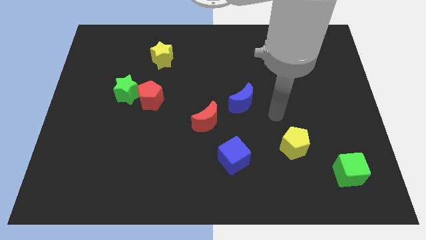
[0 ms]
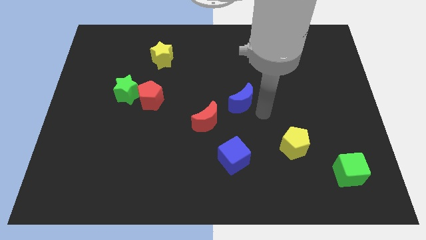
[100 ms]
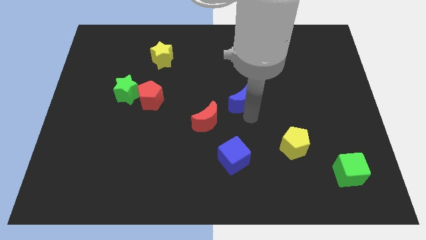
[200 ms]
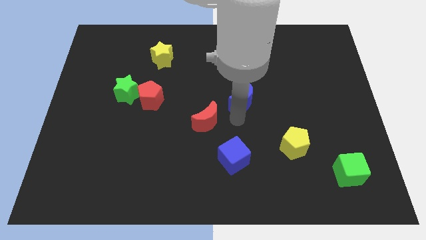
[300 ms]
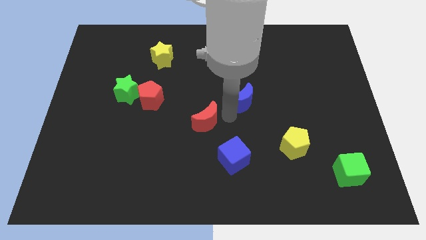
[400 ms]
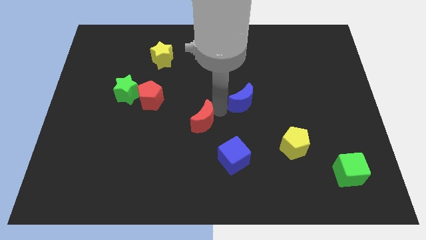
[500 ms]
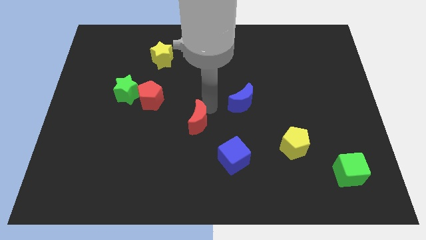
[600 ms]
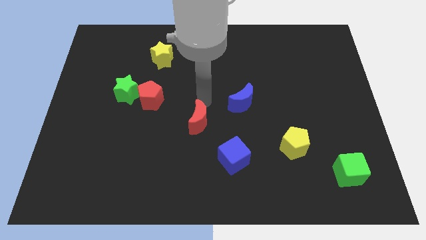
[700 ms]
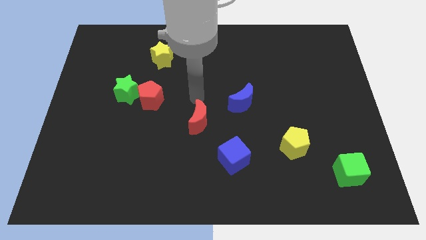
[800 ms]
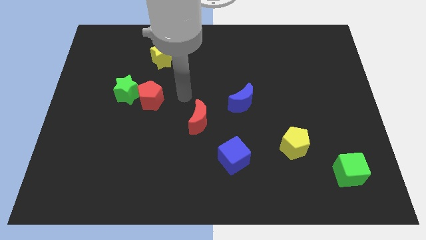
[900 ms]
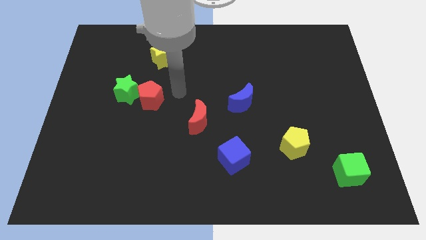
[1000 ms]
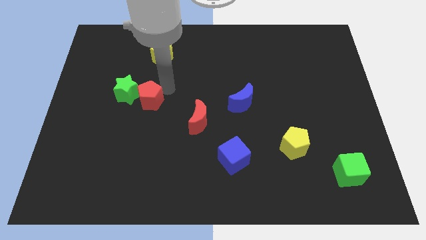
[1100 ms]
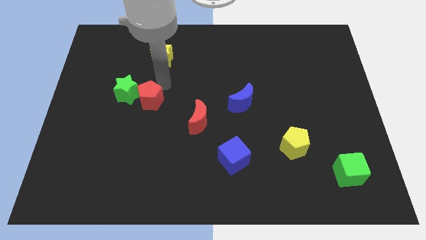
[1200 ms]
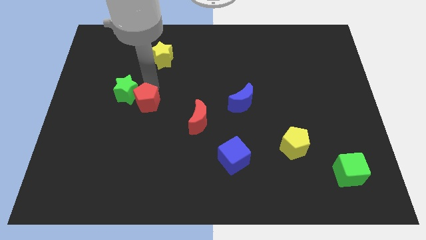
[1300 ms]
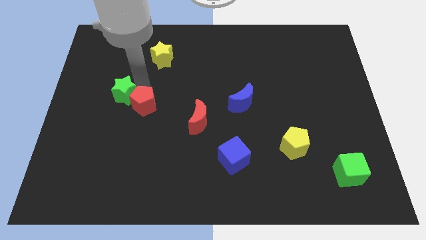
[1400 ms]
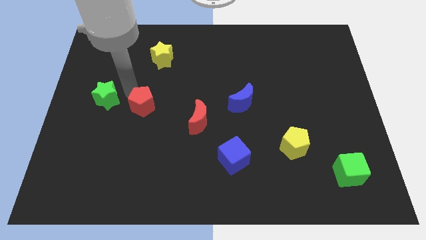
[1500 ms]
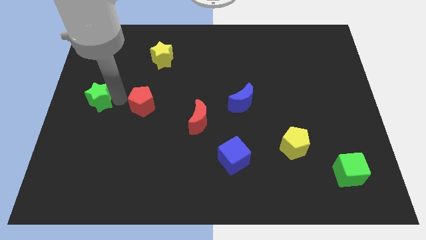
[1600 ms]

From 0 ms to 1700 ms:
separate the red pentagon from the green star

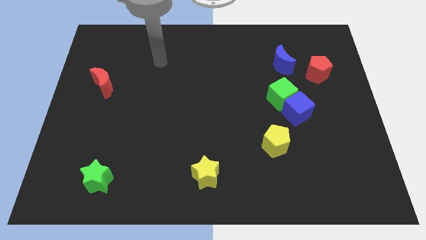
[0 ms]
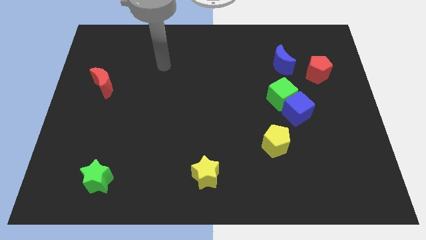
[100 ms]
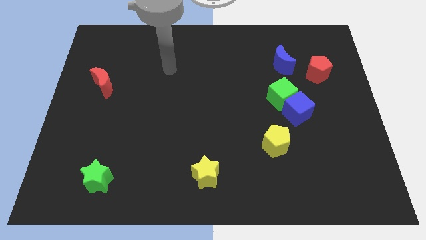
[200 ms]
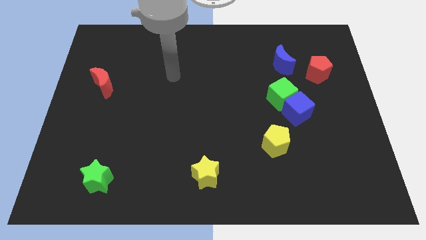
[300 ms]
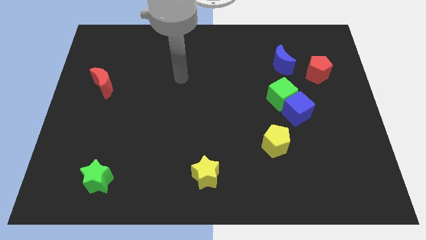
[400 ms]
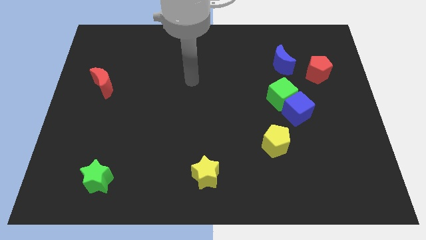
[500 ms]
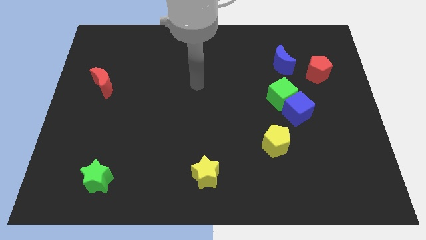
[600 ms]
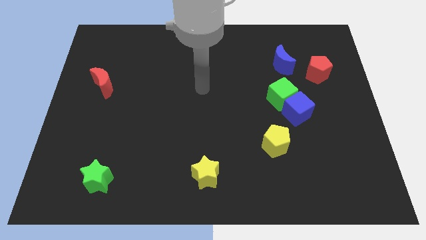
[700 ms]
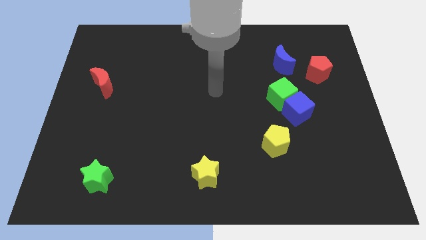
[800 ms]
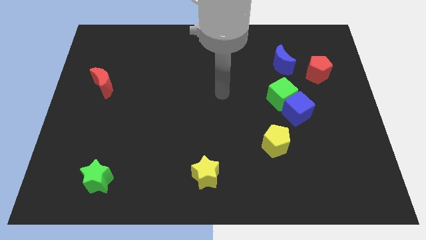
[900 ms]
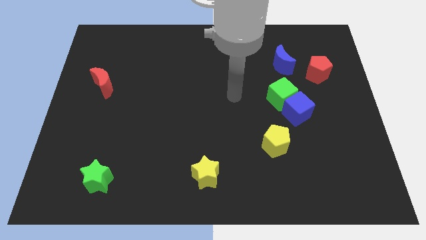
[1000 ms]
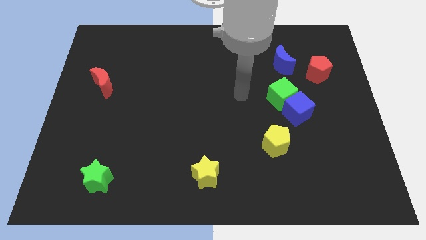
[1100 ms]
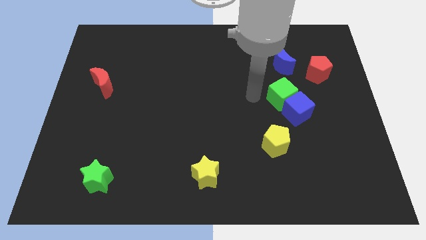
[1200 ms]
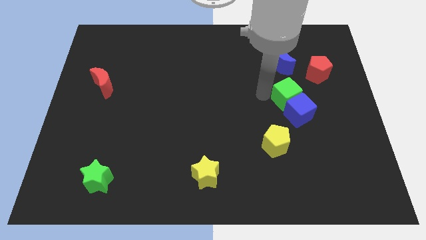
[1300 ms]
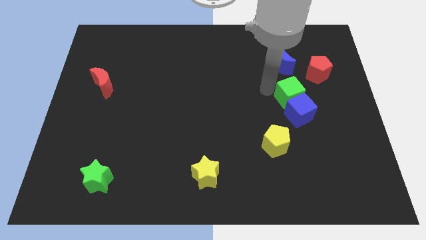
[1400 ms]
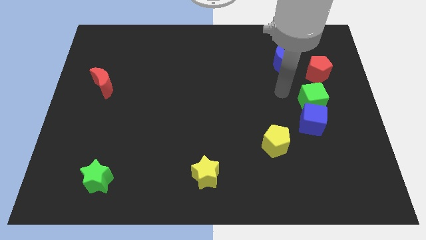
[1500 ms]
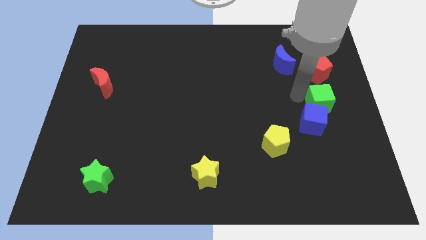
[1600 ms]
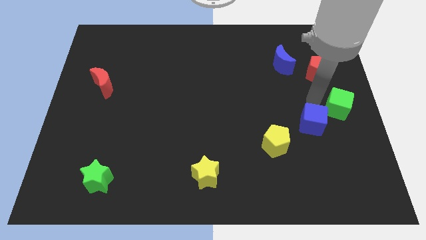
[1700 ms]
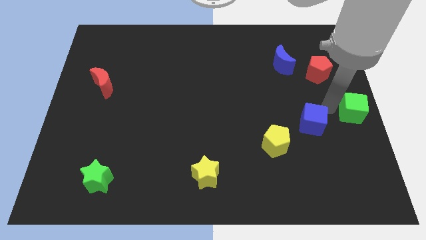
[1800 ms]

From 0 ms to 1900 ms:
pull the blue cube apart from the green cube

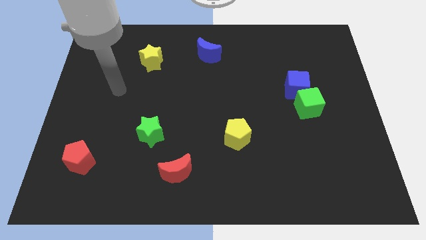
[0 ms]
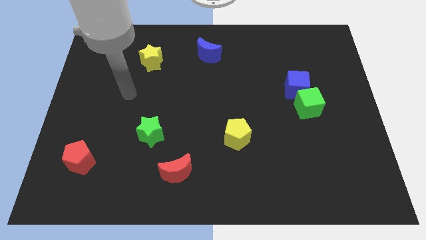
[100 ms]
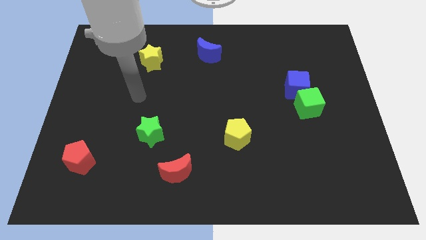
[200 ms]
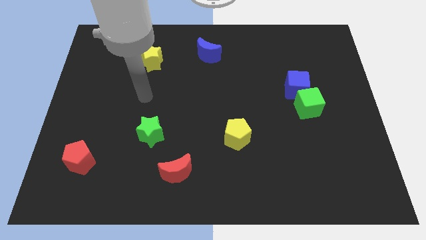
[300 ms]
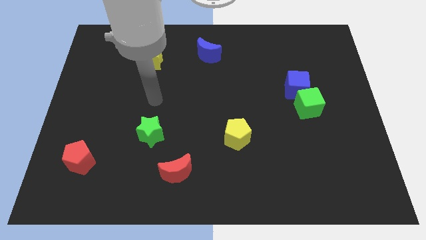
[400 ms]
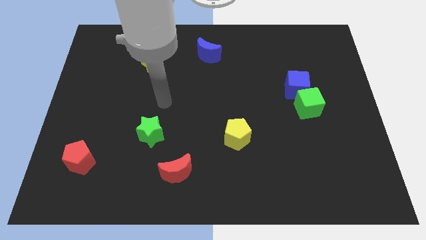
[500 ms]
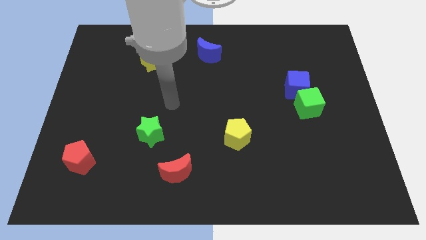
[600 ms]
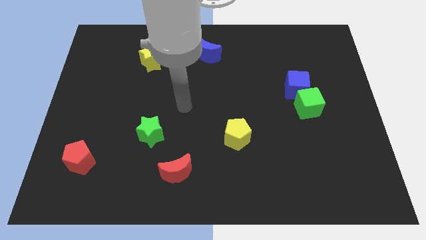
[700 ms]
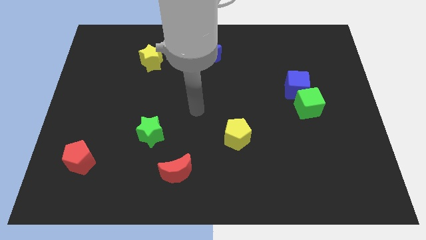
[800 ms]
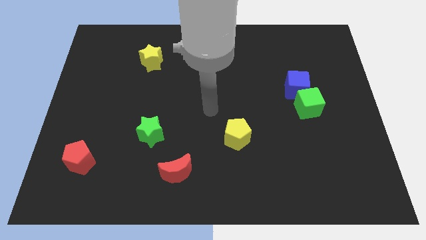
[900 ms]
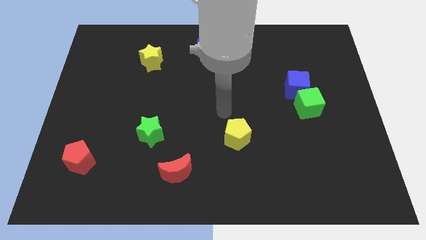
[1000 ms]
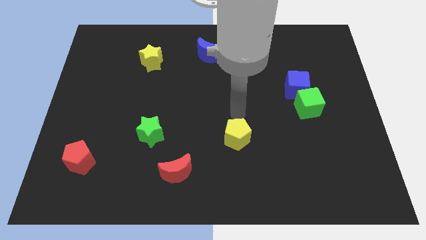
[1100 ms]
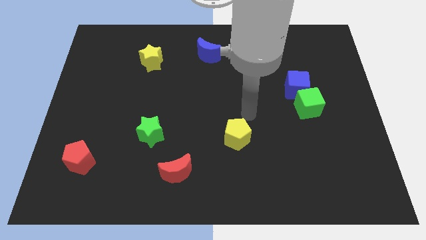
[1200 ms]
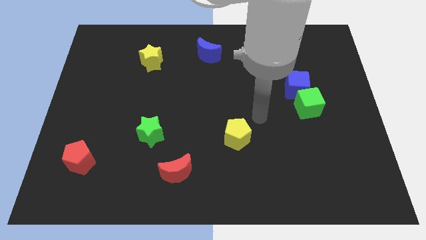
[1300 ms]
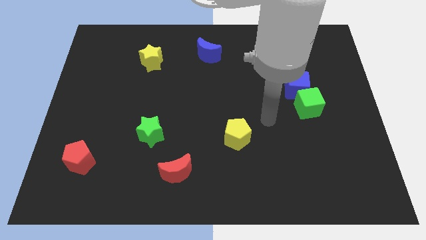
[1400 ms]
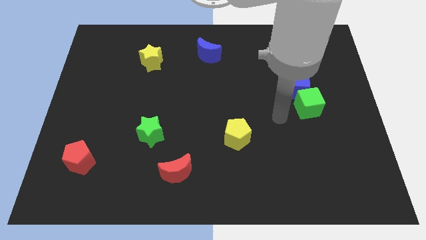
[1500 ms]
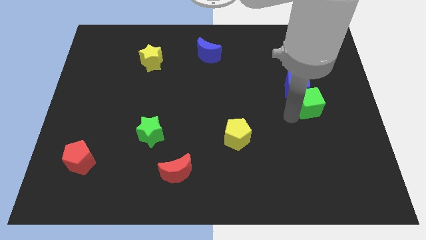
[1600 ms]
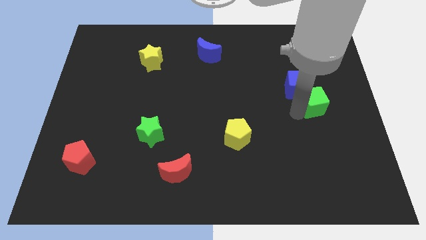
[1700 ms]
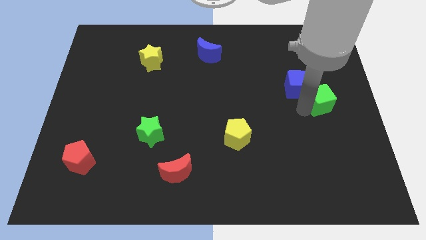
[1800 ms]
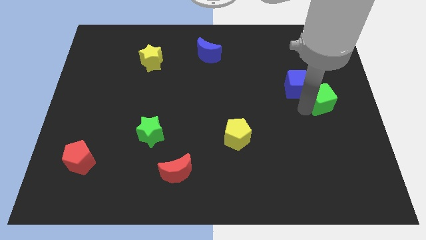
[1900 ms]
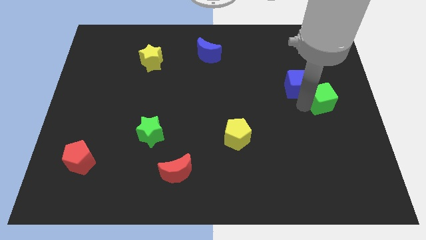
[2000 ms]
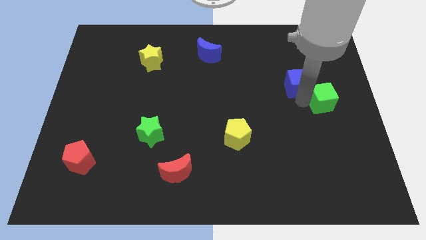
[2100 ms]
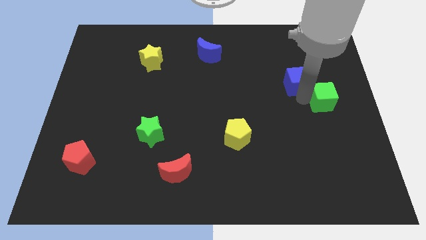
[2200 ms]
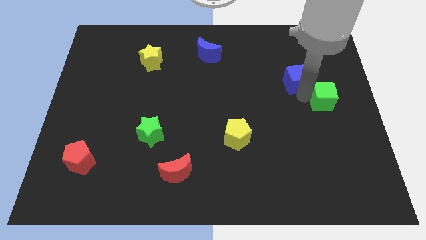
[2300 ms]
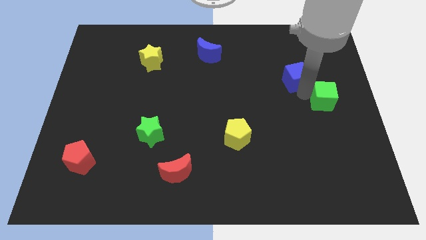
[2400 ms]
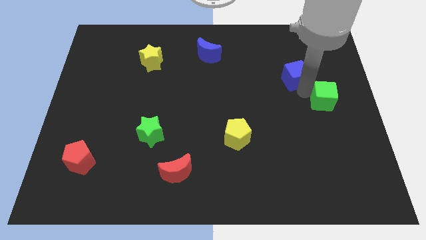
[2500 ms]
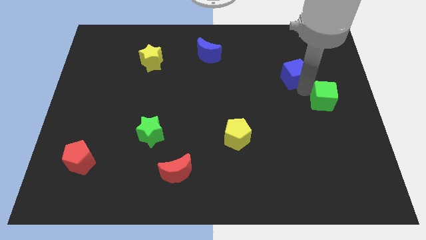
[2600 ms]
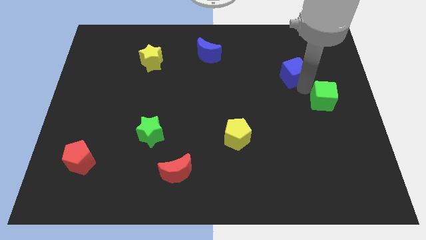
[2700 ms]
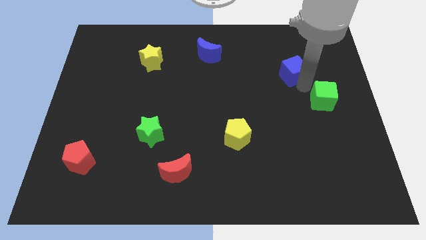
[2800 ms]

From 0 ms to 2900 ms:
separate the blue cube from the green cube

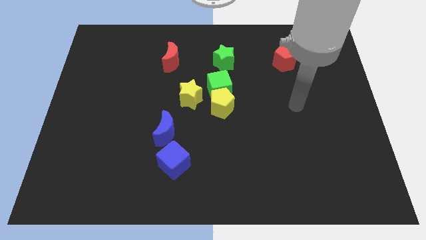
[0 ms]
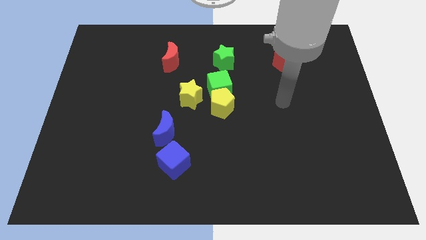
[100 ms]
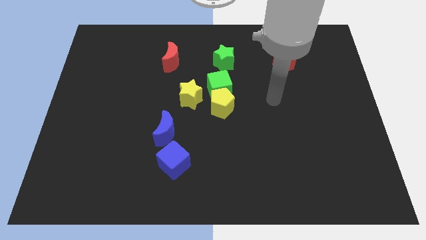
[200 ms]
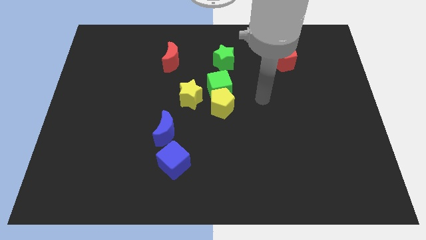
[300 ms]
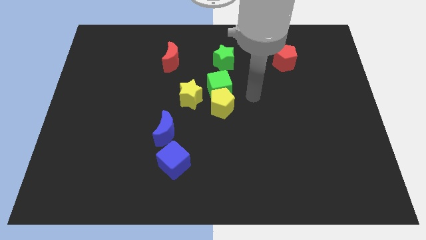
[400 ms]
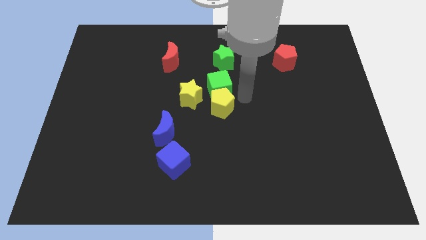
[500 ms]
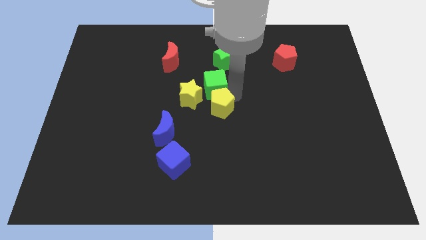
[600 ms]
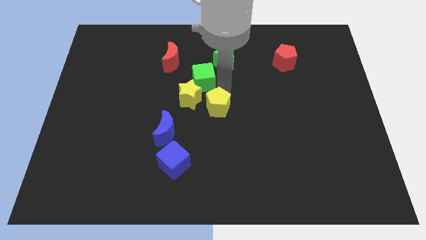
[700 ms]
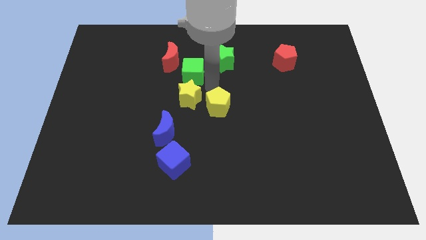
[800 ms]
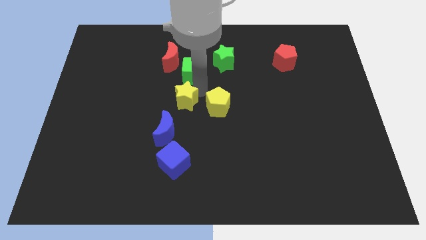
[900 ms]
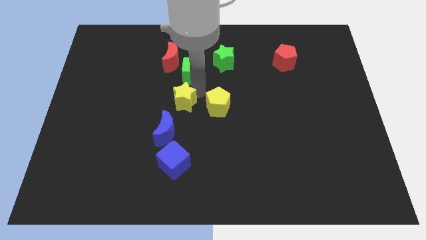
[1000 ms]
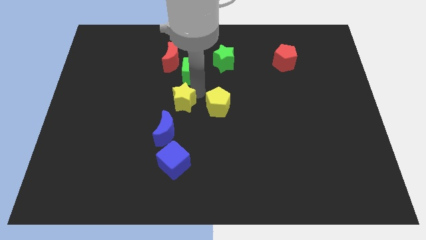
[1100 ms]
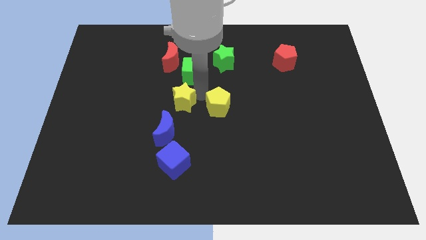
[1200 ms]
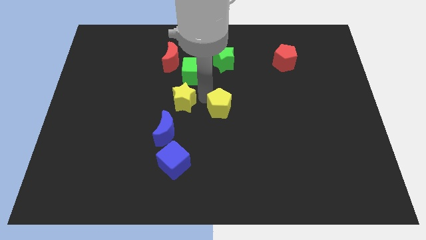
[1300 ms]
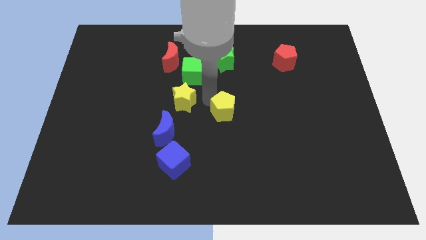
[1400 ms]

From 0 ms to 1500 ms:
separate the yellow pentagon from the green cube and yellow star

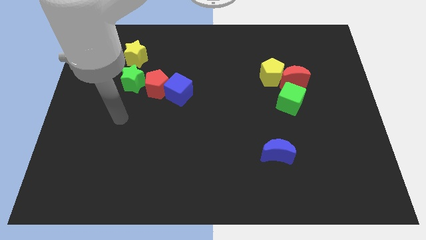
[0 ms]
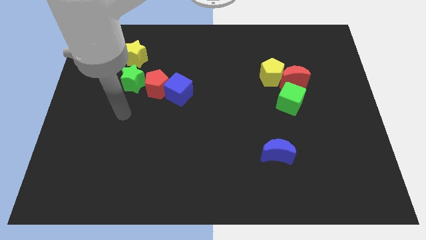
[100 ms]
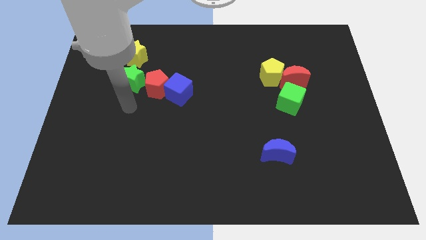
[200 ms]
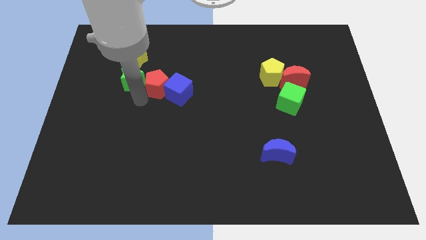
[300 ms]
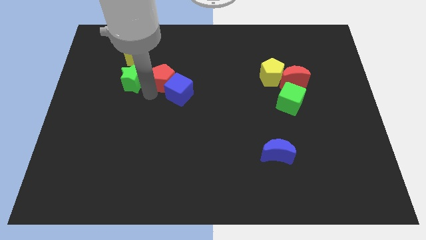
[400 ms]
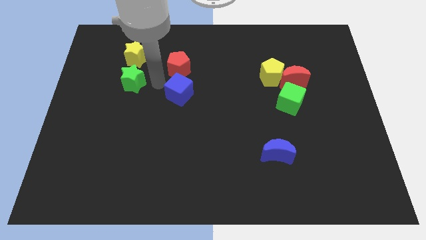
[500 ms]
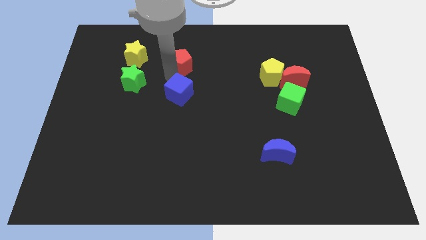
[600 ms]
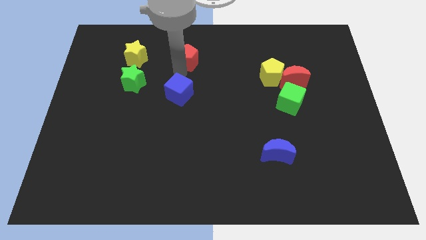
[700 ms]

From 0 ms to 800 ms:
separate the blue cube from the red pentagon

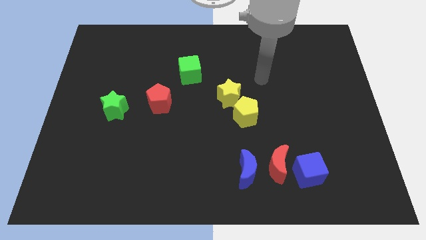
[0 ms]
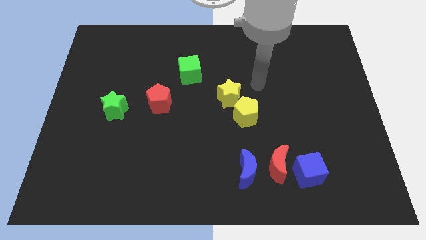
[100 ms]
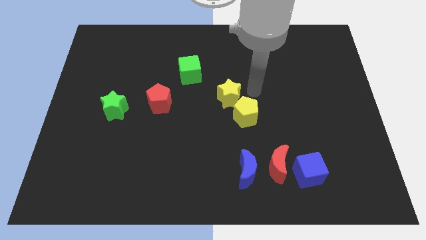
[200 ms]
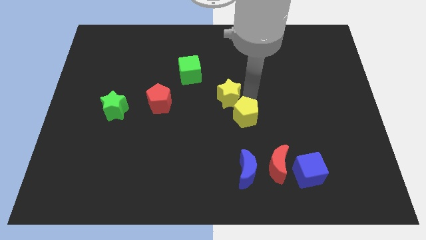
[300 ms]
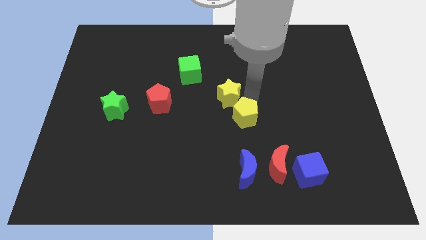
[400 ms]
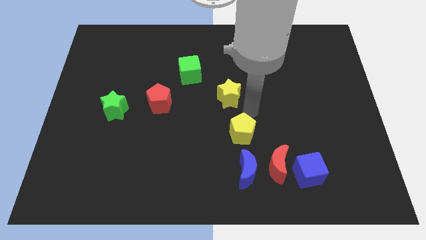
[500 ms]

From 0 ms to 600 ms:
separate the yellow star from the yellow pentagon
